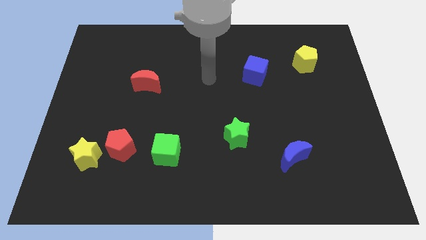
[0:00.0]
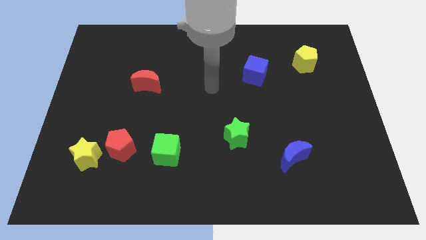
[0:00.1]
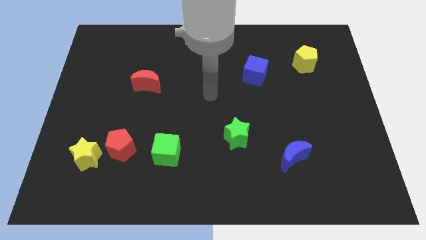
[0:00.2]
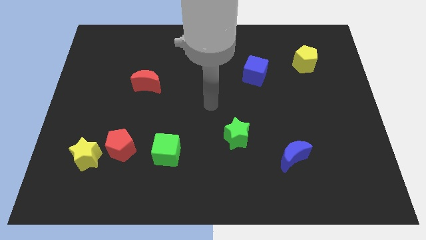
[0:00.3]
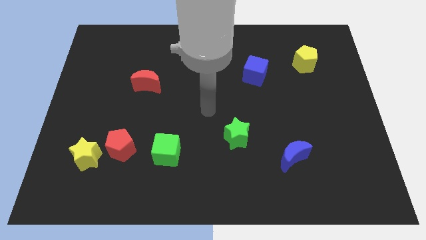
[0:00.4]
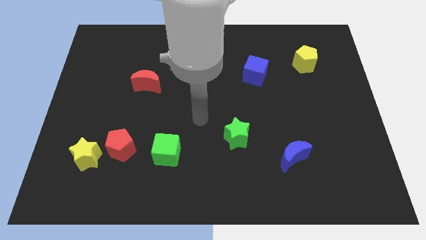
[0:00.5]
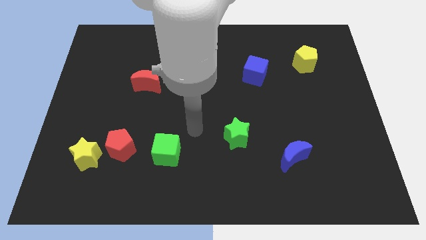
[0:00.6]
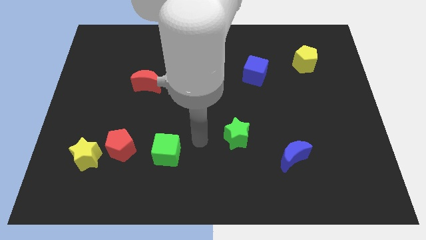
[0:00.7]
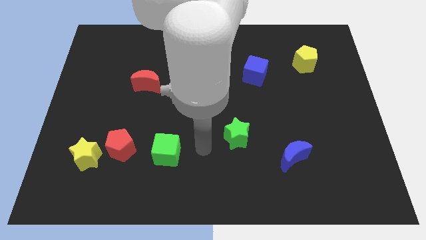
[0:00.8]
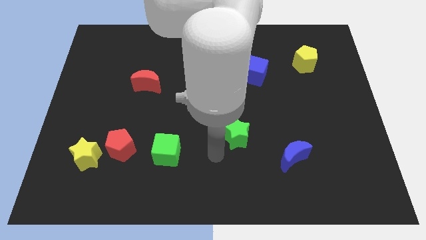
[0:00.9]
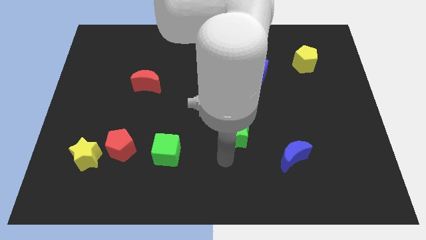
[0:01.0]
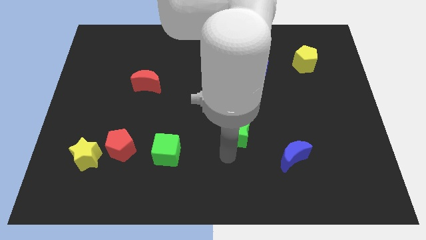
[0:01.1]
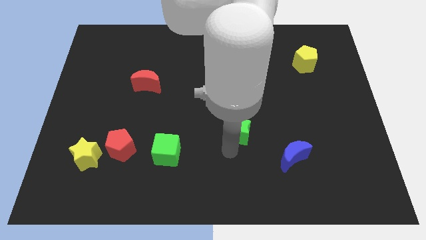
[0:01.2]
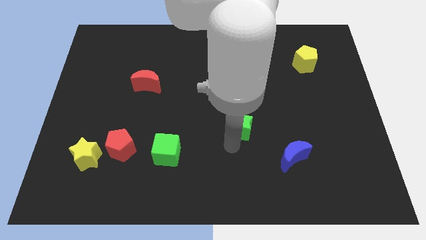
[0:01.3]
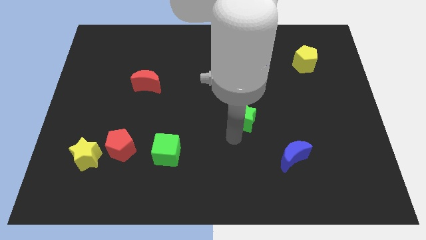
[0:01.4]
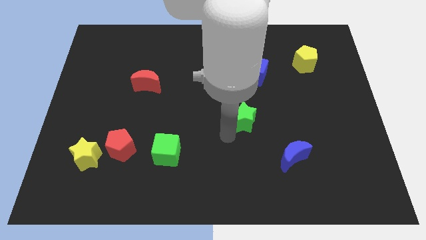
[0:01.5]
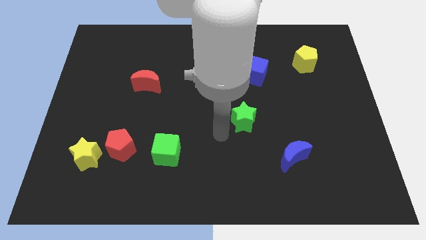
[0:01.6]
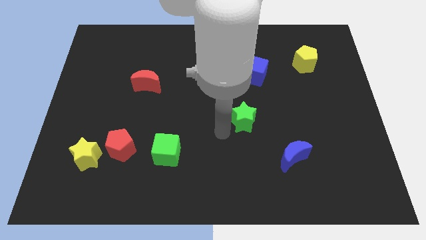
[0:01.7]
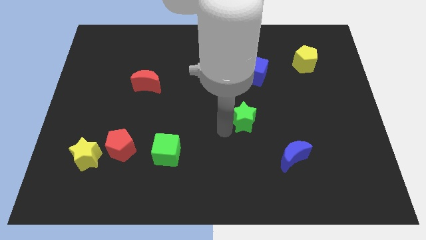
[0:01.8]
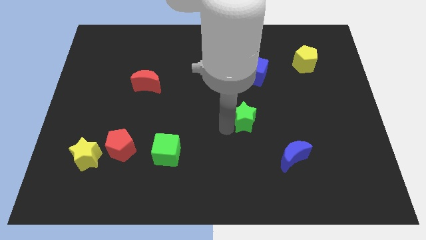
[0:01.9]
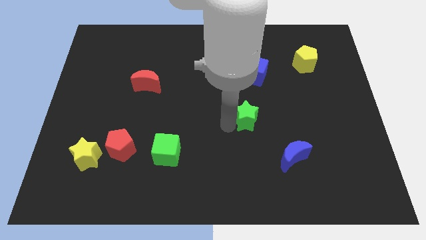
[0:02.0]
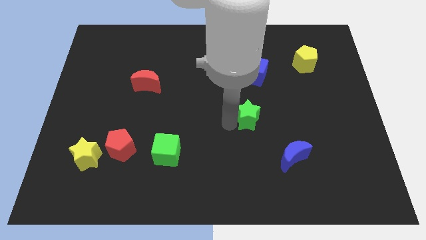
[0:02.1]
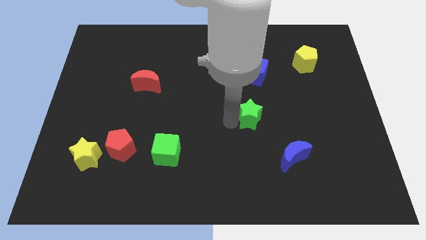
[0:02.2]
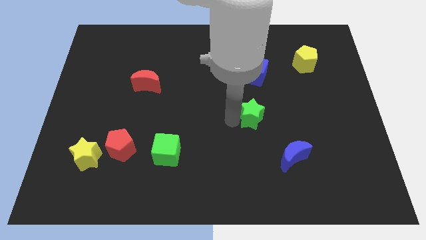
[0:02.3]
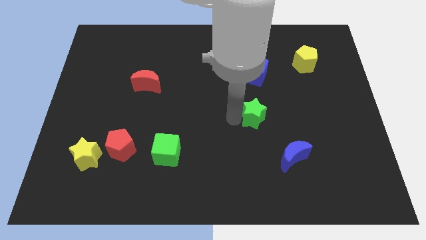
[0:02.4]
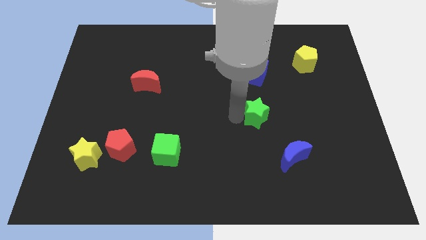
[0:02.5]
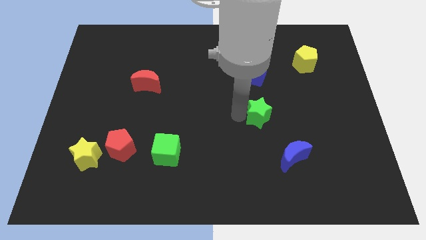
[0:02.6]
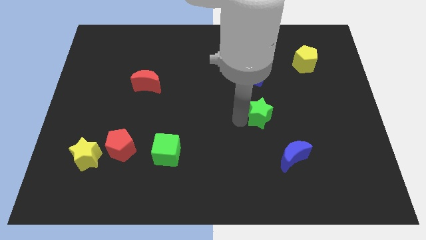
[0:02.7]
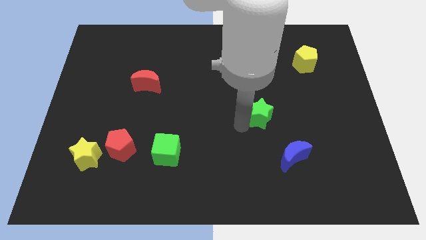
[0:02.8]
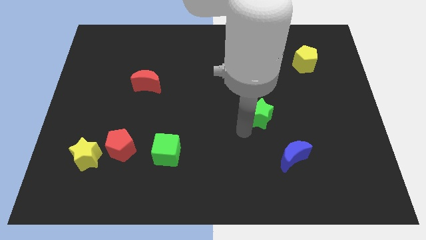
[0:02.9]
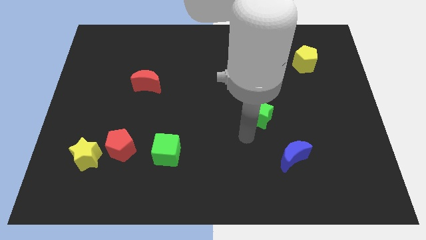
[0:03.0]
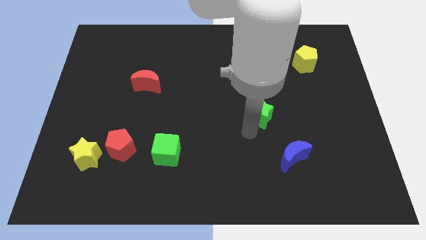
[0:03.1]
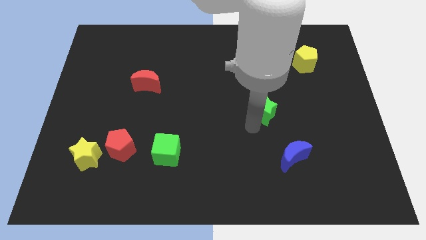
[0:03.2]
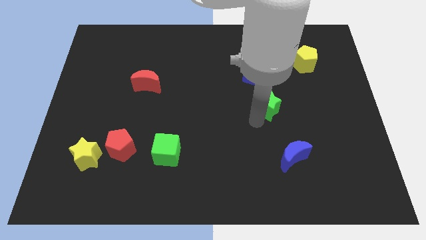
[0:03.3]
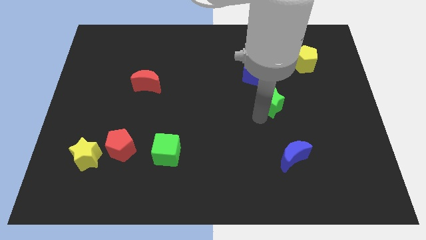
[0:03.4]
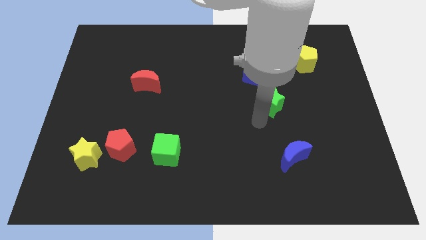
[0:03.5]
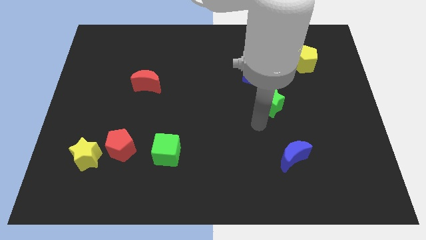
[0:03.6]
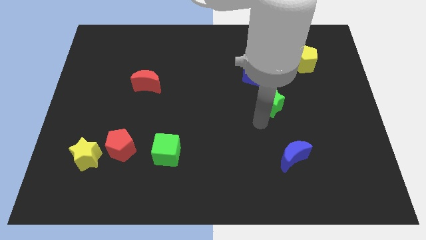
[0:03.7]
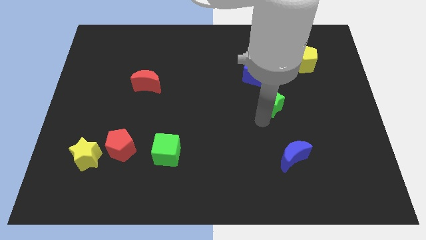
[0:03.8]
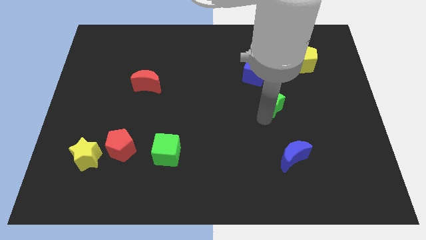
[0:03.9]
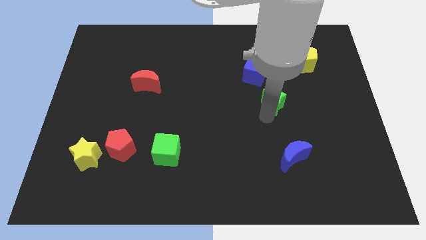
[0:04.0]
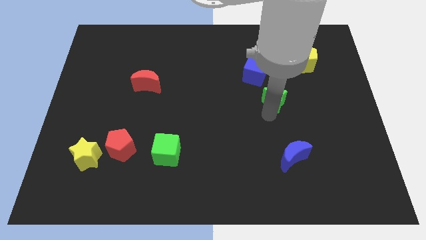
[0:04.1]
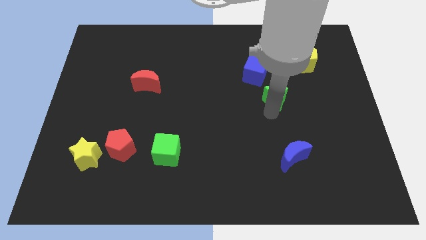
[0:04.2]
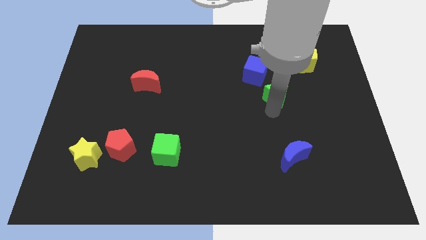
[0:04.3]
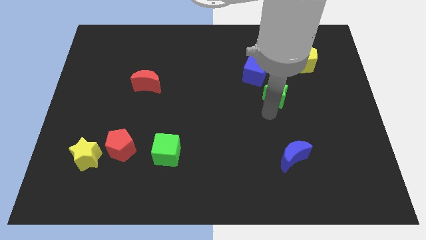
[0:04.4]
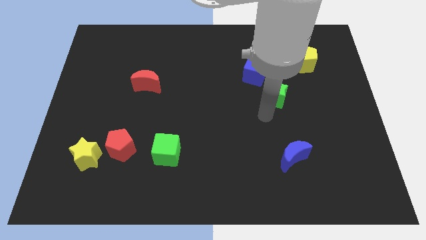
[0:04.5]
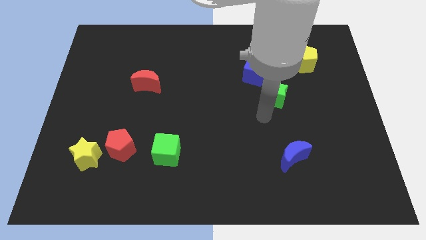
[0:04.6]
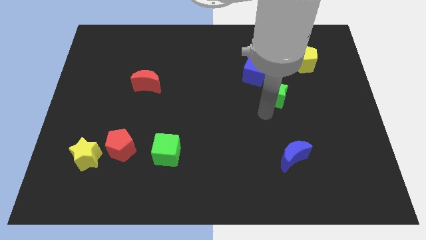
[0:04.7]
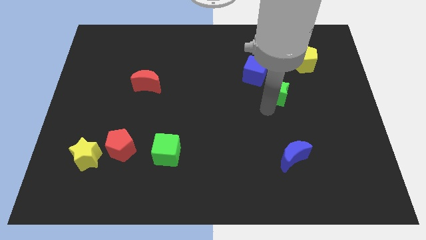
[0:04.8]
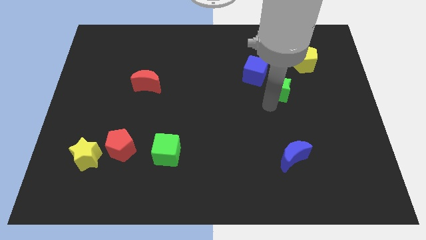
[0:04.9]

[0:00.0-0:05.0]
move the green star diagonally down and to the left of the yellow pentagon

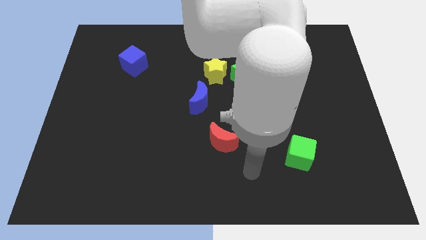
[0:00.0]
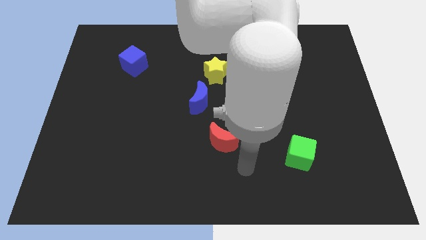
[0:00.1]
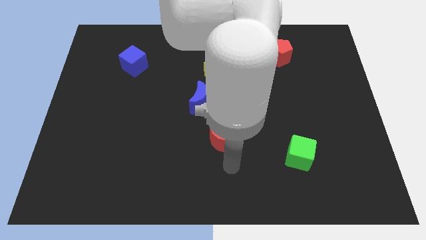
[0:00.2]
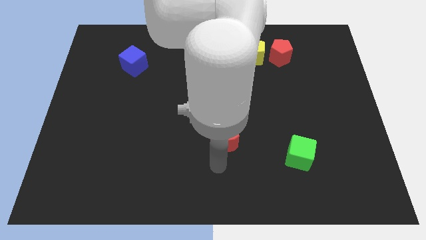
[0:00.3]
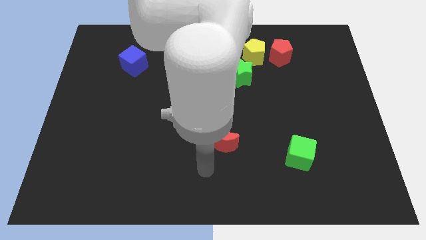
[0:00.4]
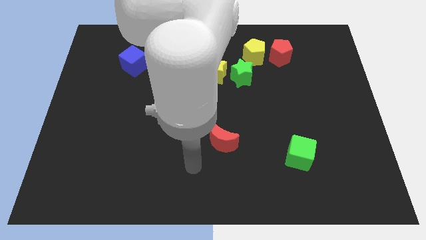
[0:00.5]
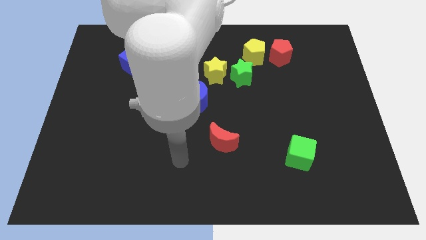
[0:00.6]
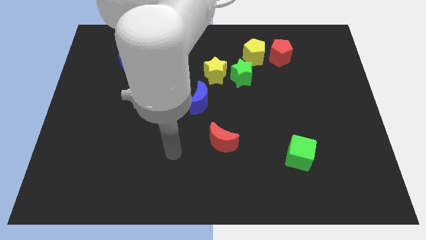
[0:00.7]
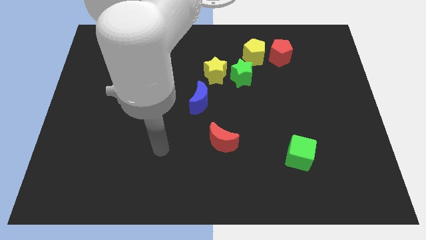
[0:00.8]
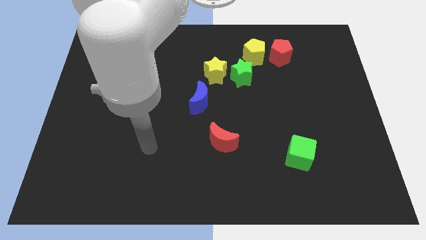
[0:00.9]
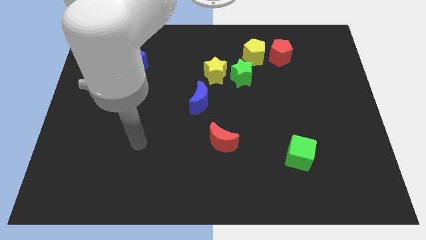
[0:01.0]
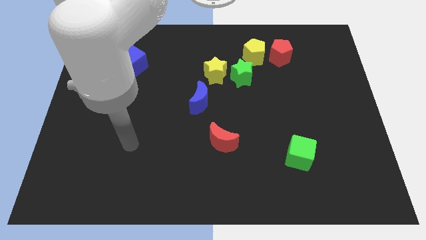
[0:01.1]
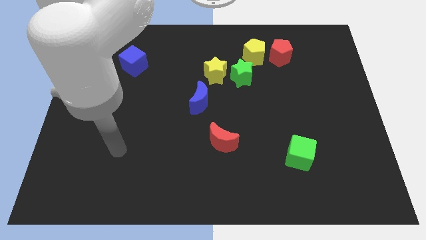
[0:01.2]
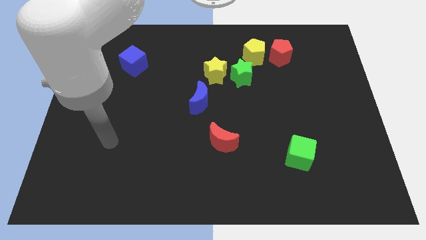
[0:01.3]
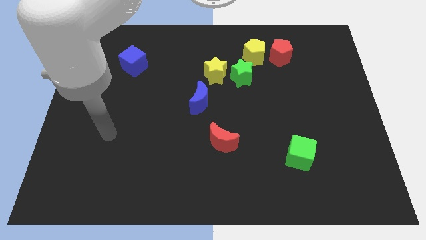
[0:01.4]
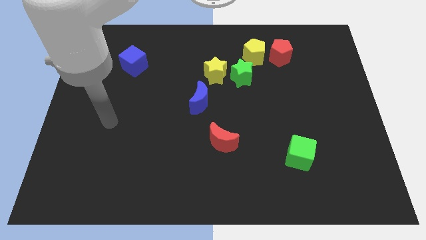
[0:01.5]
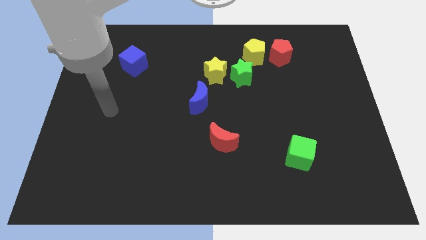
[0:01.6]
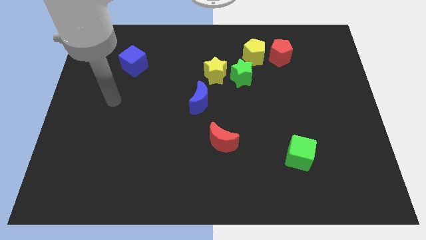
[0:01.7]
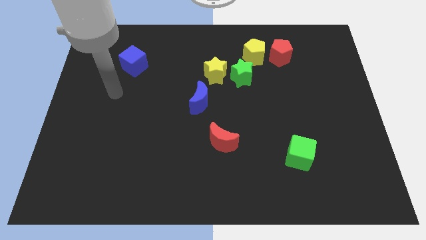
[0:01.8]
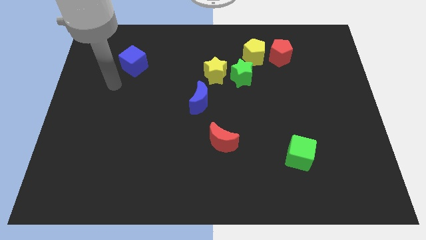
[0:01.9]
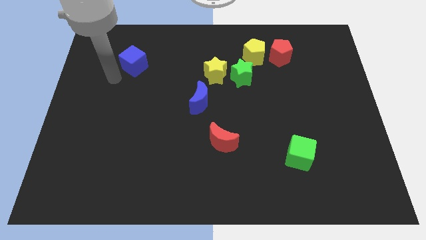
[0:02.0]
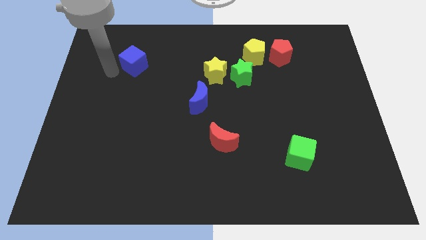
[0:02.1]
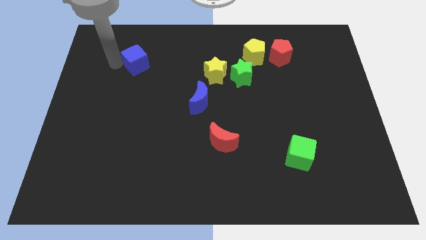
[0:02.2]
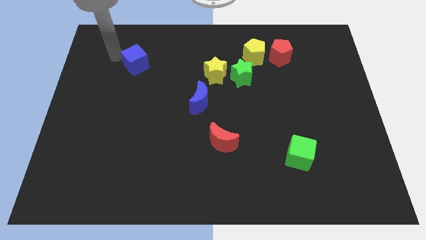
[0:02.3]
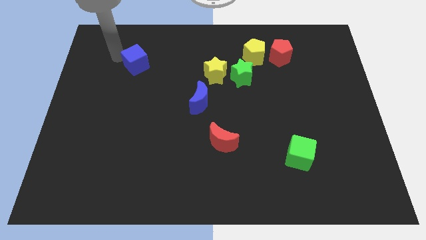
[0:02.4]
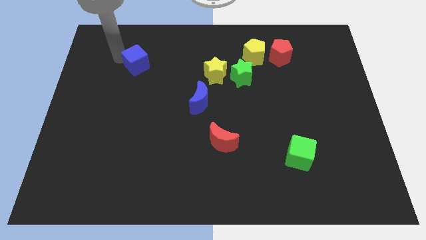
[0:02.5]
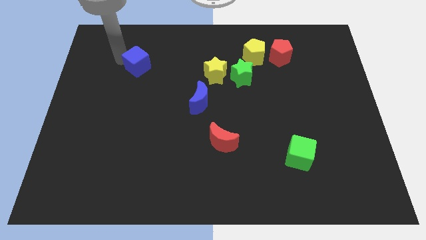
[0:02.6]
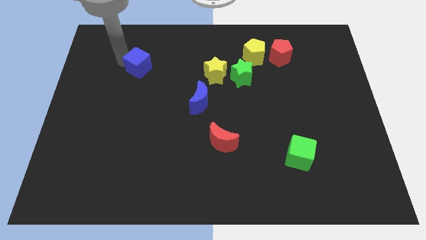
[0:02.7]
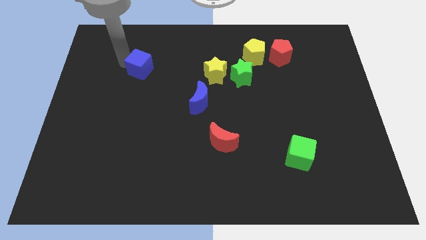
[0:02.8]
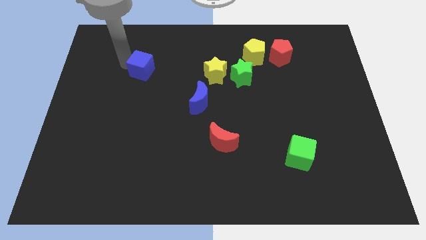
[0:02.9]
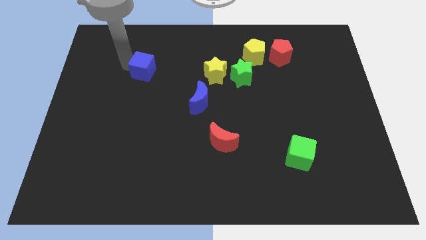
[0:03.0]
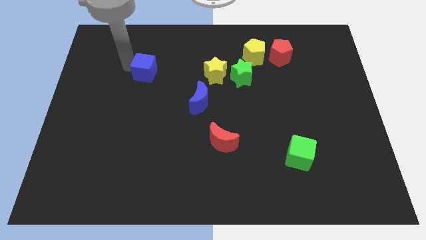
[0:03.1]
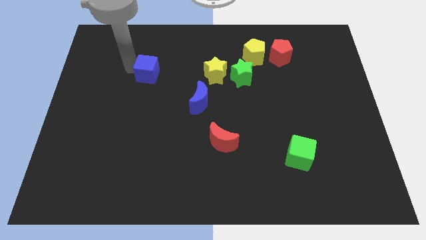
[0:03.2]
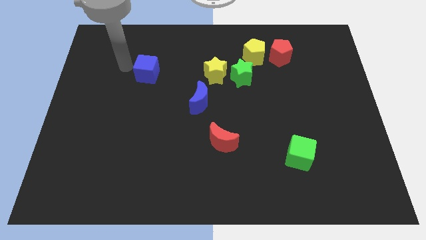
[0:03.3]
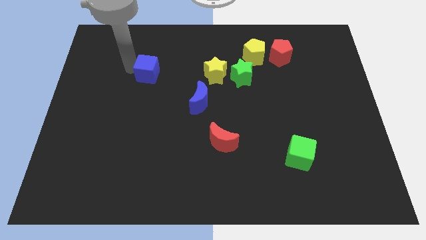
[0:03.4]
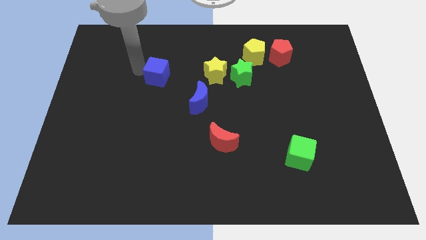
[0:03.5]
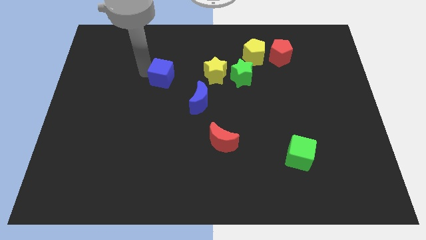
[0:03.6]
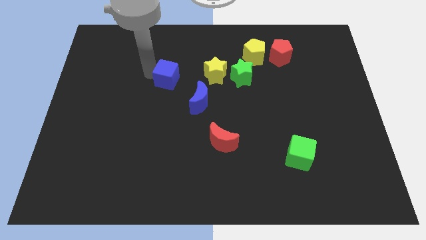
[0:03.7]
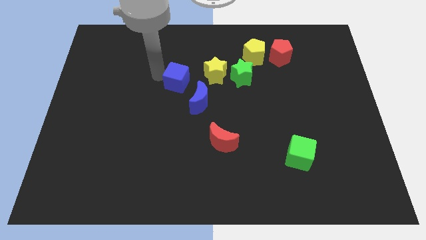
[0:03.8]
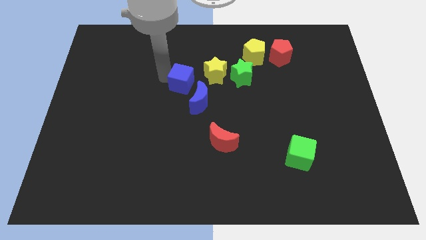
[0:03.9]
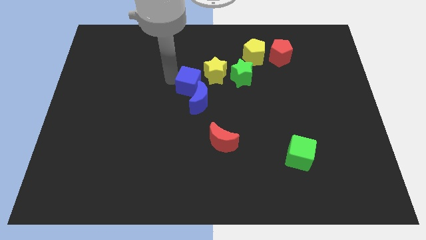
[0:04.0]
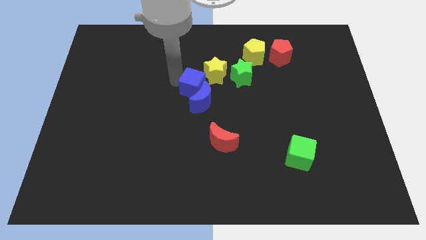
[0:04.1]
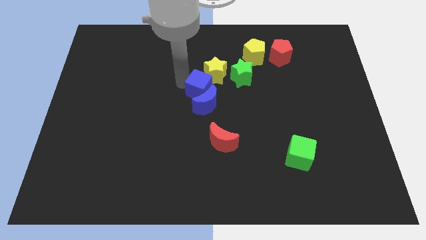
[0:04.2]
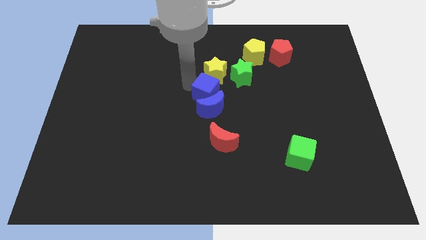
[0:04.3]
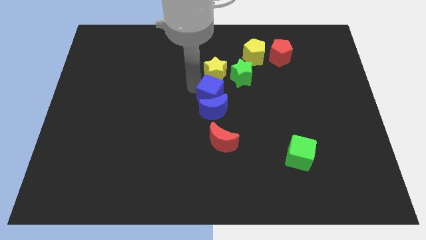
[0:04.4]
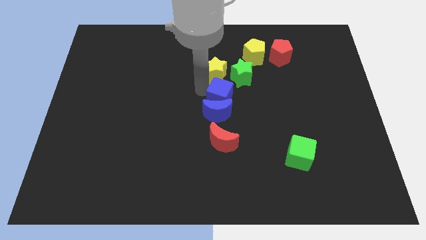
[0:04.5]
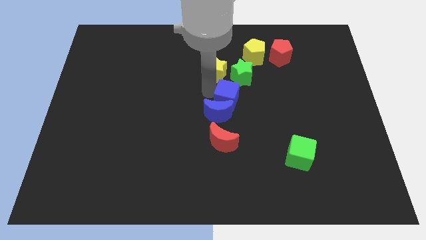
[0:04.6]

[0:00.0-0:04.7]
slide the blue cube below the green star
